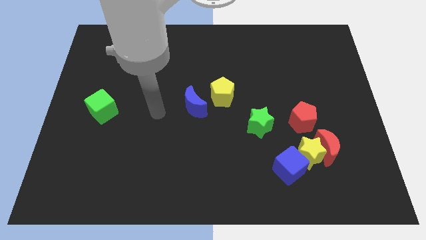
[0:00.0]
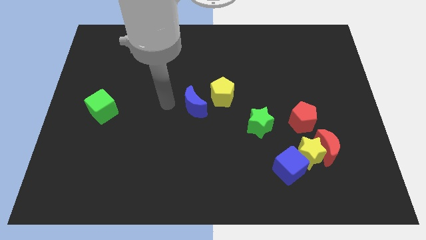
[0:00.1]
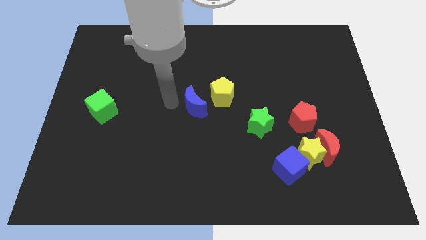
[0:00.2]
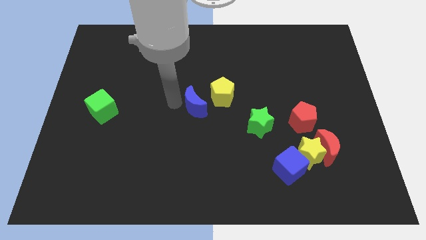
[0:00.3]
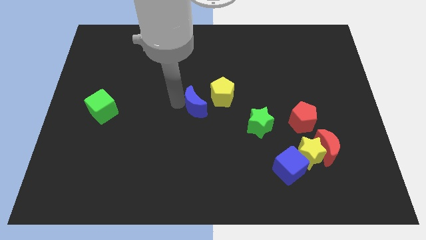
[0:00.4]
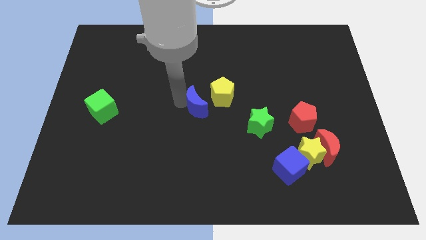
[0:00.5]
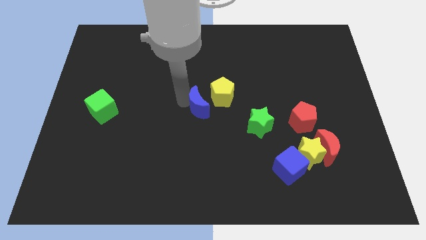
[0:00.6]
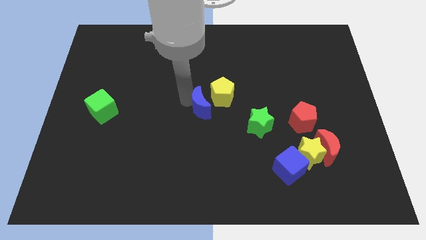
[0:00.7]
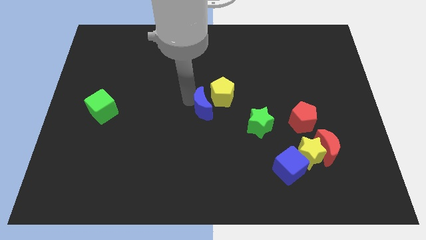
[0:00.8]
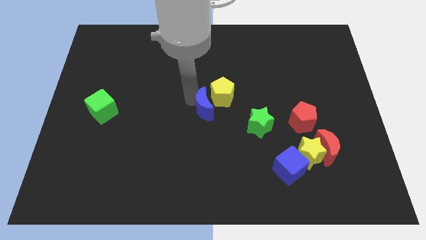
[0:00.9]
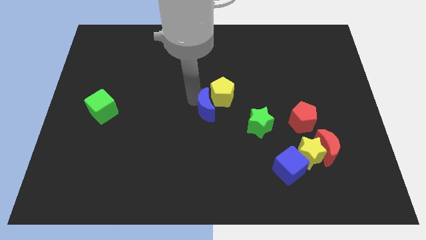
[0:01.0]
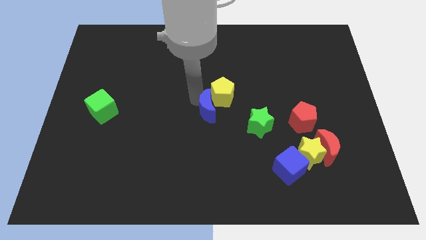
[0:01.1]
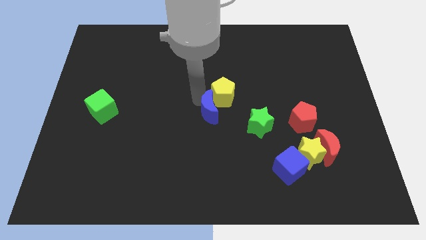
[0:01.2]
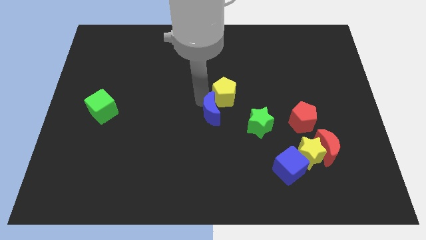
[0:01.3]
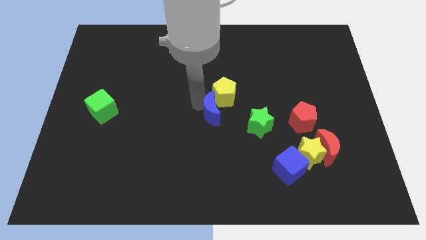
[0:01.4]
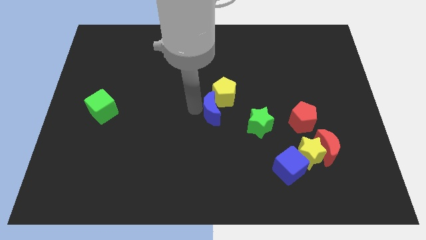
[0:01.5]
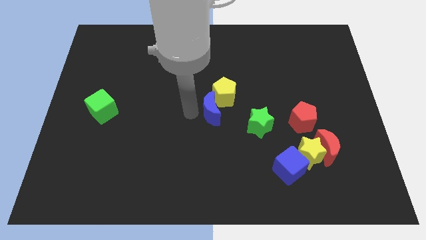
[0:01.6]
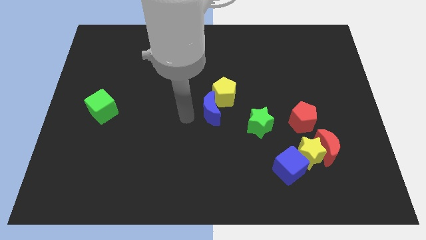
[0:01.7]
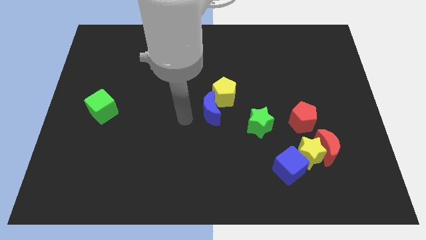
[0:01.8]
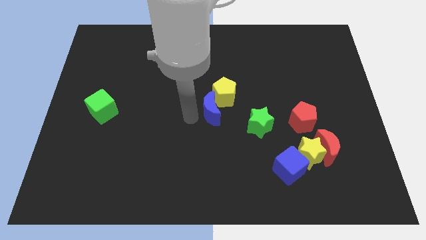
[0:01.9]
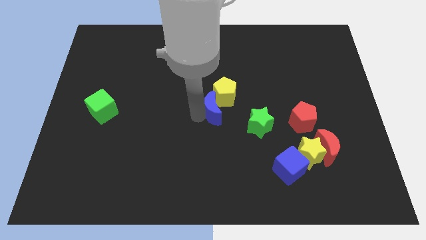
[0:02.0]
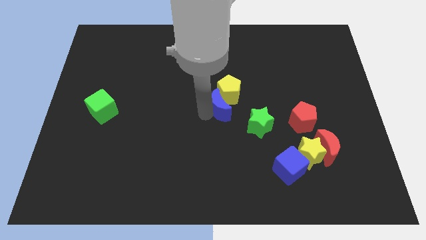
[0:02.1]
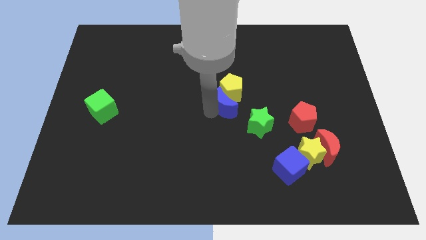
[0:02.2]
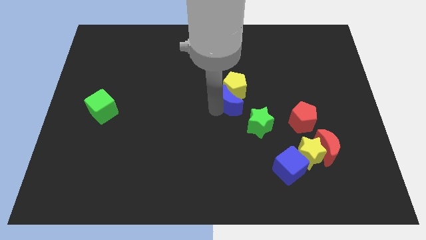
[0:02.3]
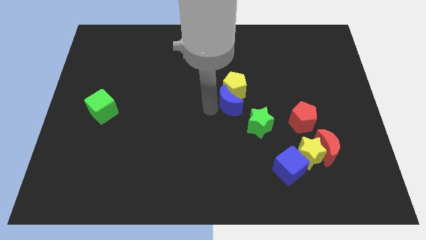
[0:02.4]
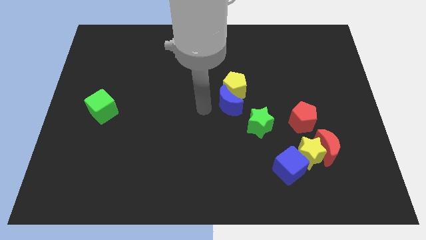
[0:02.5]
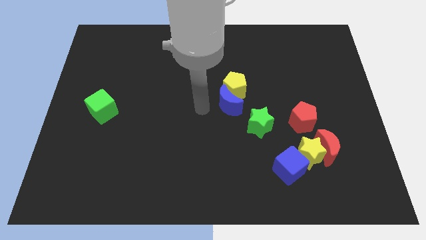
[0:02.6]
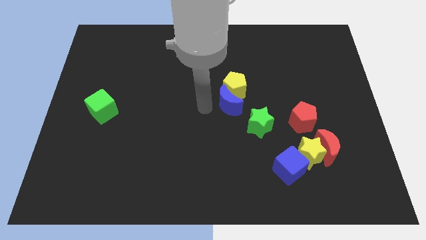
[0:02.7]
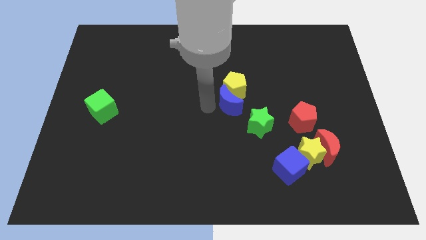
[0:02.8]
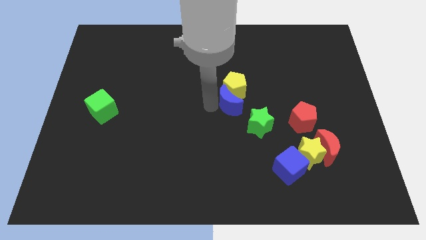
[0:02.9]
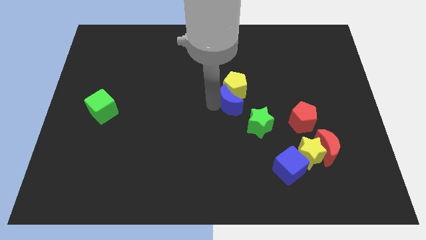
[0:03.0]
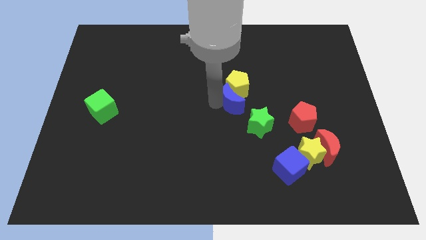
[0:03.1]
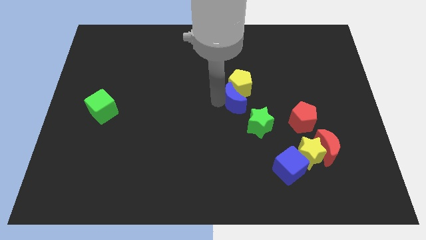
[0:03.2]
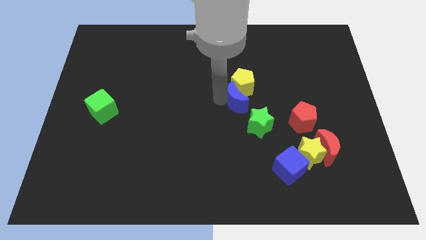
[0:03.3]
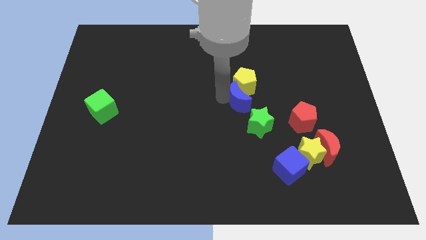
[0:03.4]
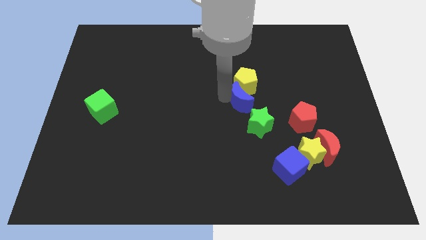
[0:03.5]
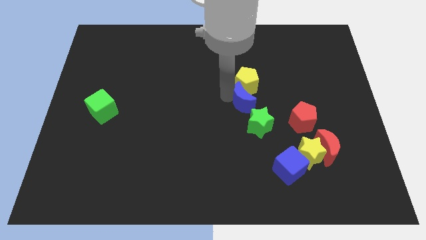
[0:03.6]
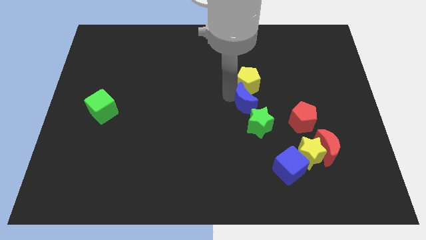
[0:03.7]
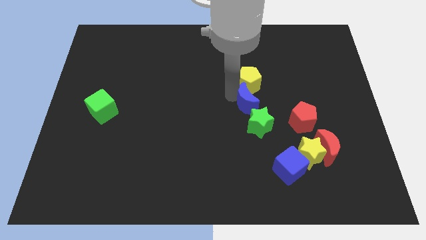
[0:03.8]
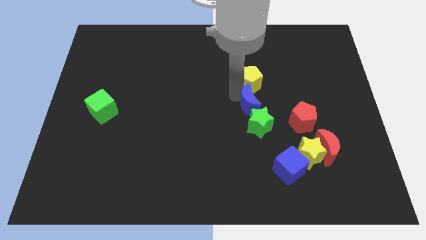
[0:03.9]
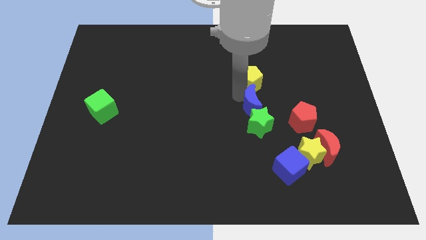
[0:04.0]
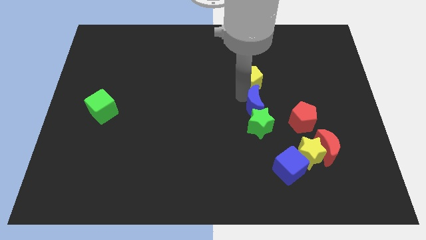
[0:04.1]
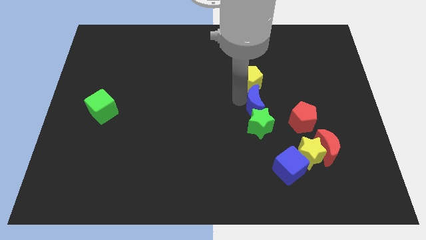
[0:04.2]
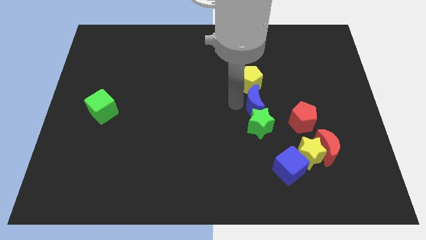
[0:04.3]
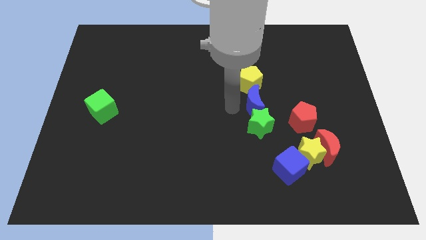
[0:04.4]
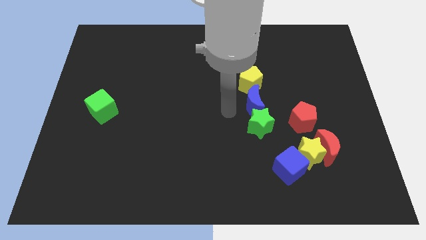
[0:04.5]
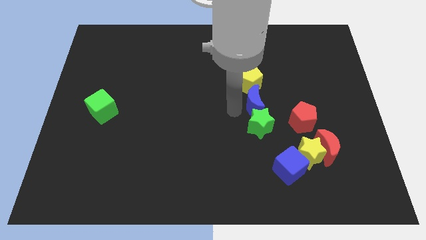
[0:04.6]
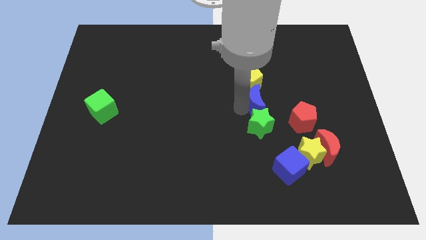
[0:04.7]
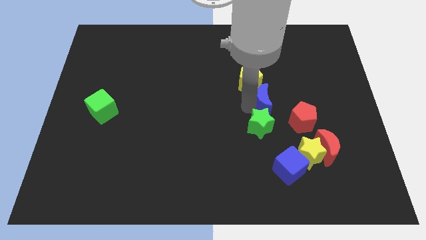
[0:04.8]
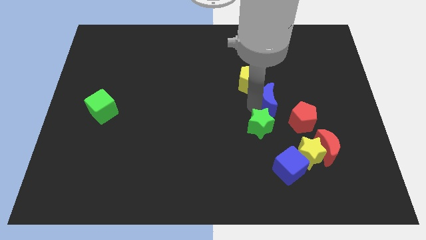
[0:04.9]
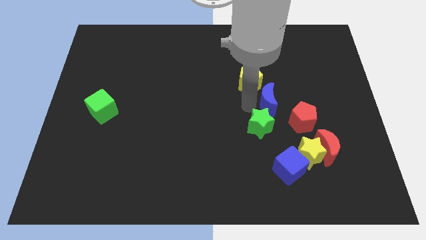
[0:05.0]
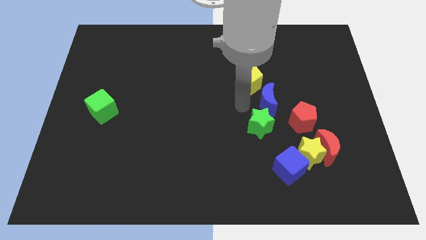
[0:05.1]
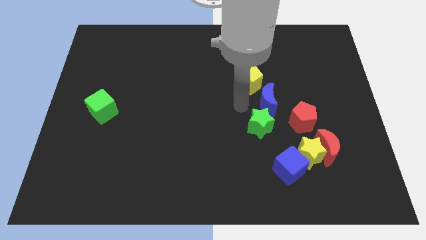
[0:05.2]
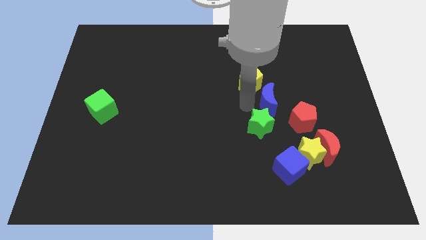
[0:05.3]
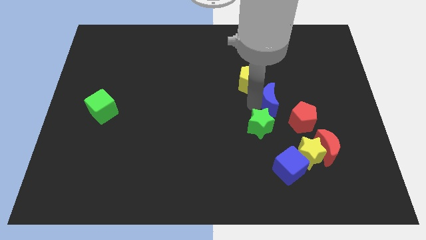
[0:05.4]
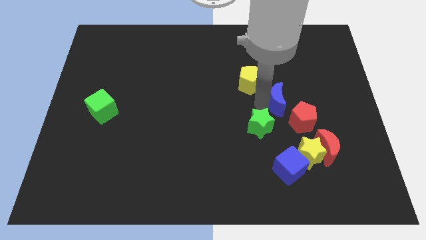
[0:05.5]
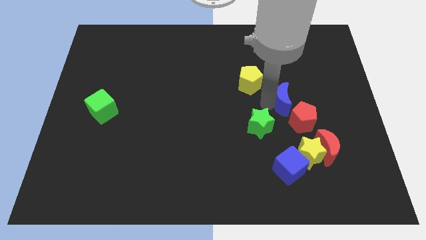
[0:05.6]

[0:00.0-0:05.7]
slide the blue moon to the right

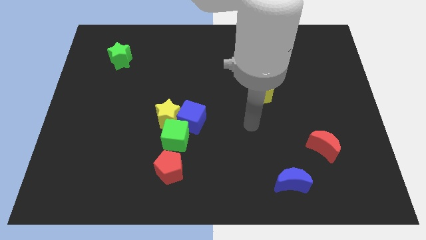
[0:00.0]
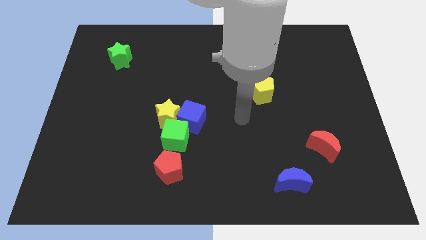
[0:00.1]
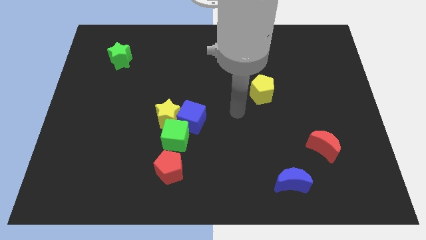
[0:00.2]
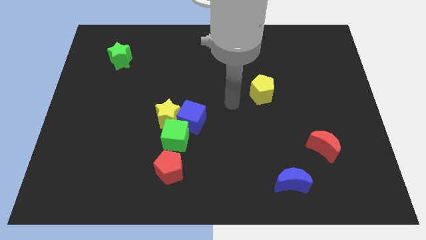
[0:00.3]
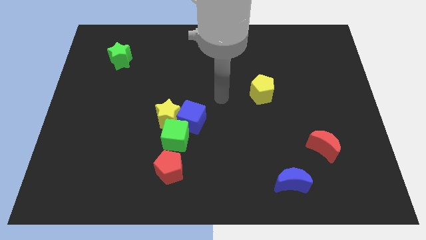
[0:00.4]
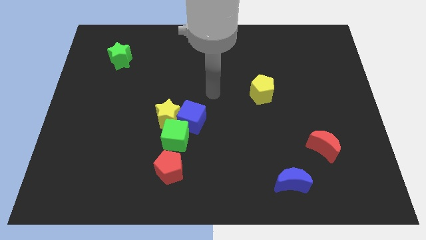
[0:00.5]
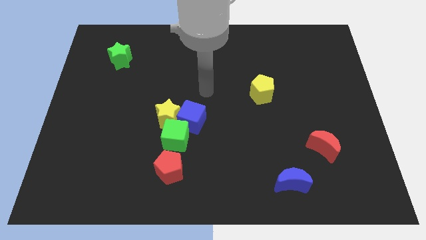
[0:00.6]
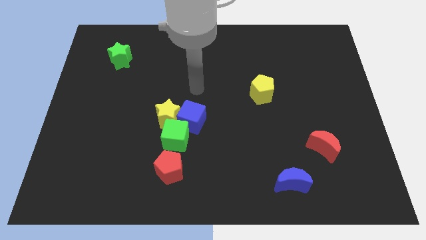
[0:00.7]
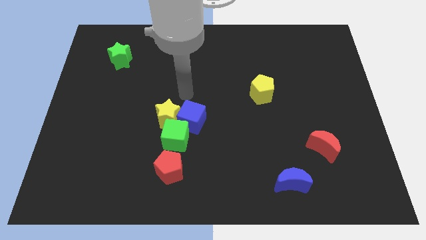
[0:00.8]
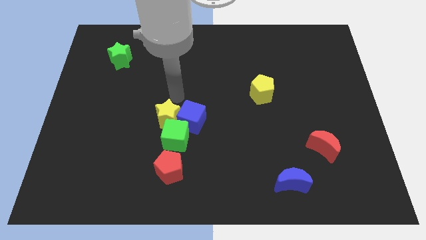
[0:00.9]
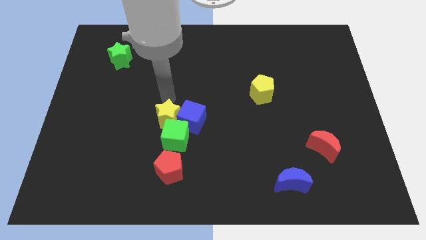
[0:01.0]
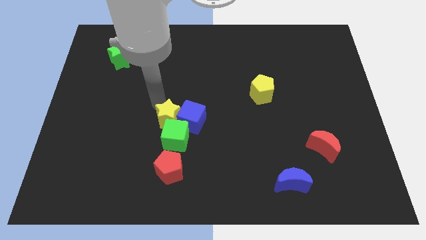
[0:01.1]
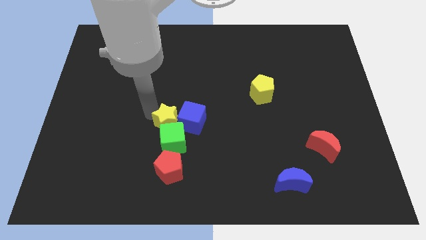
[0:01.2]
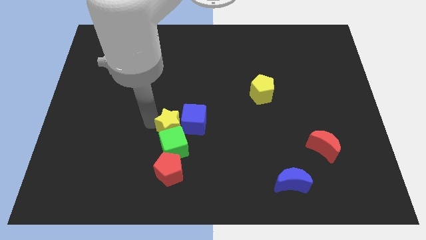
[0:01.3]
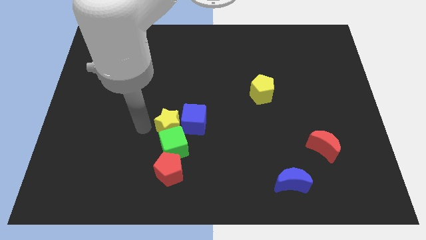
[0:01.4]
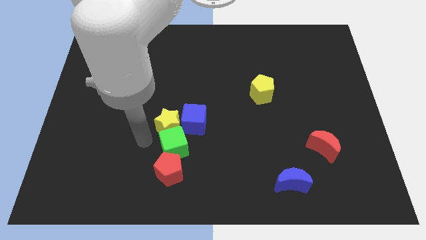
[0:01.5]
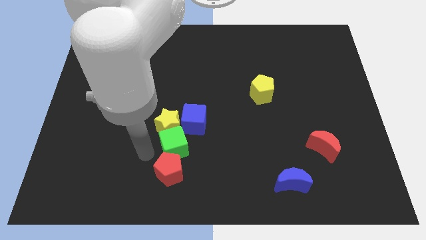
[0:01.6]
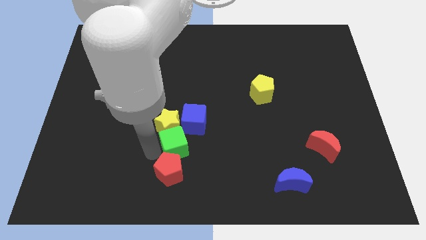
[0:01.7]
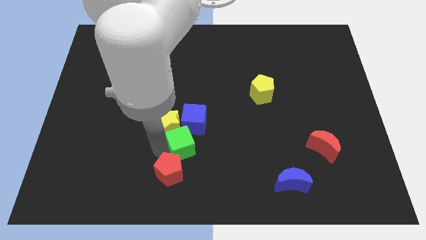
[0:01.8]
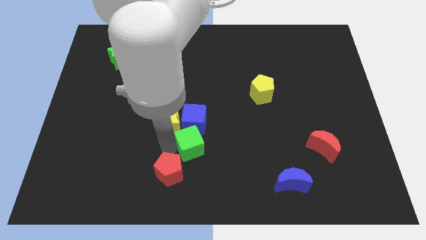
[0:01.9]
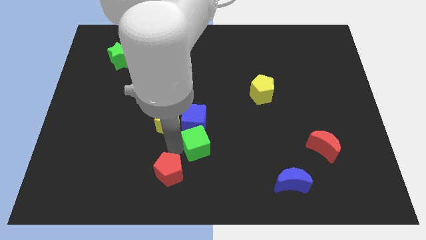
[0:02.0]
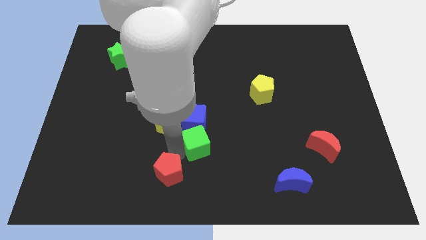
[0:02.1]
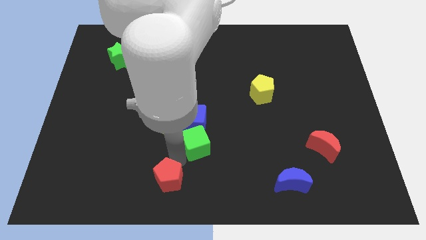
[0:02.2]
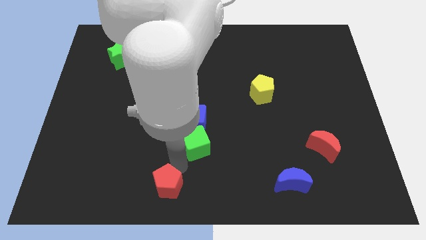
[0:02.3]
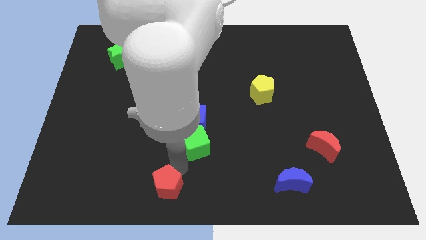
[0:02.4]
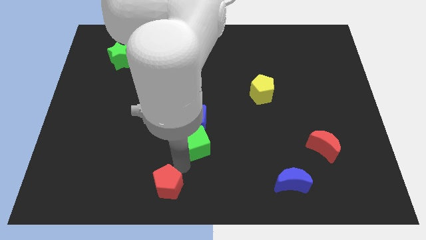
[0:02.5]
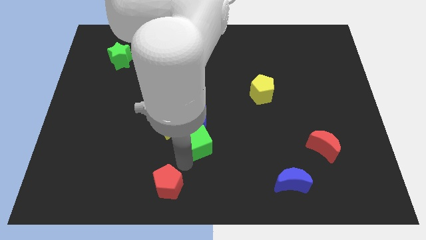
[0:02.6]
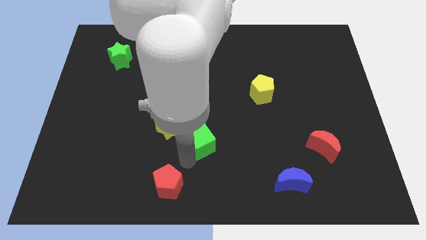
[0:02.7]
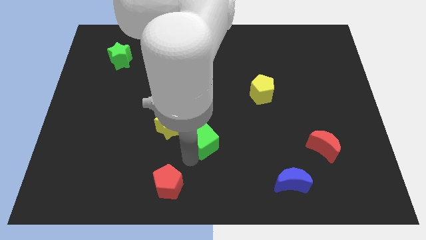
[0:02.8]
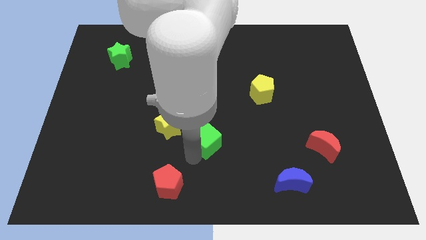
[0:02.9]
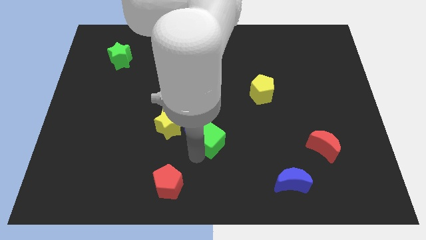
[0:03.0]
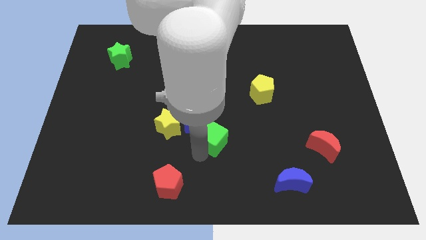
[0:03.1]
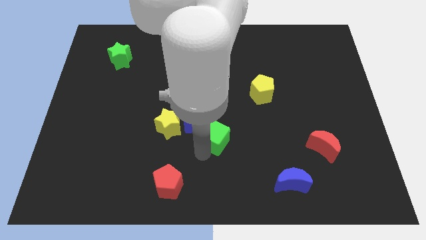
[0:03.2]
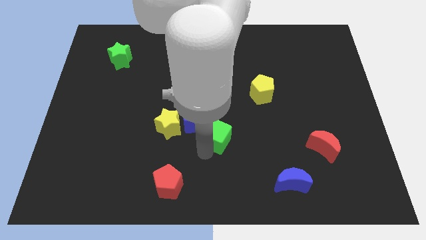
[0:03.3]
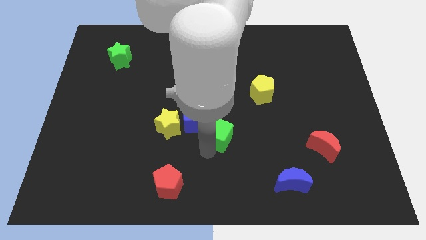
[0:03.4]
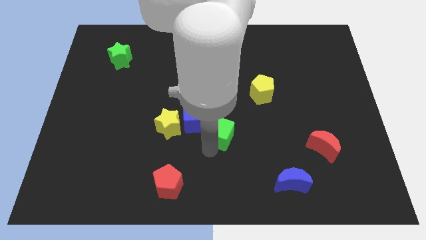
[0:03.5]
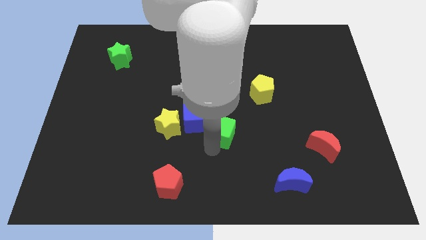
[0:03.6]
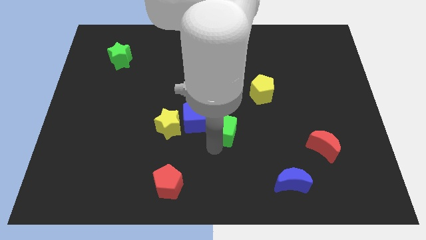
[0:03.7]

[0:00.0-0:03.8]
move the green cube a little upwards and then to the right
